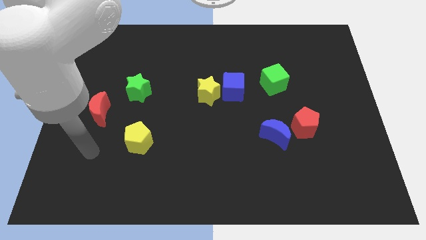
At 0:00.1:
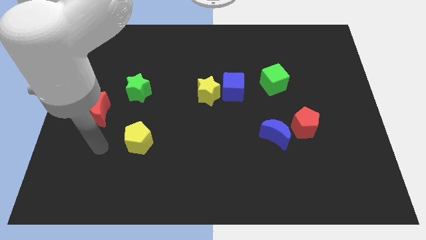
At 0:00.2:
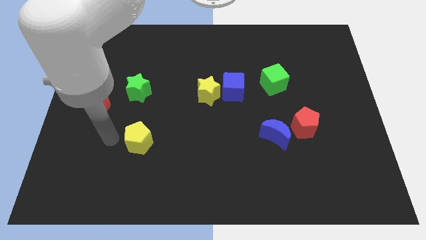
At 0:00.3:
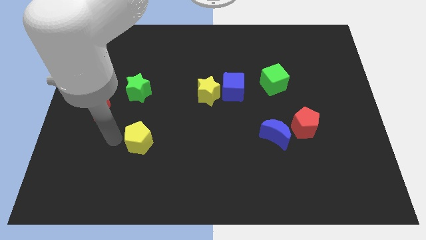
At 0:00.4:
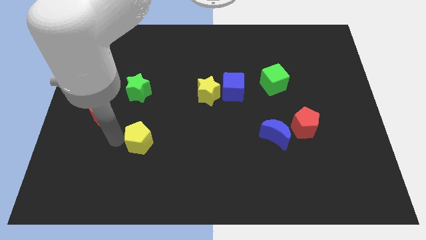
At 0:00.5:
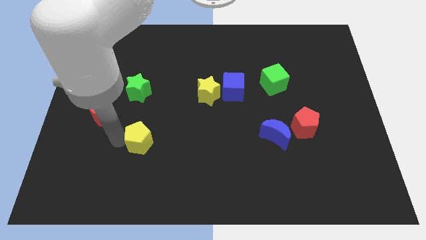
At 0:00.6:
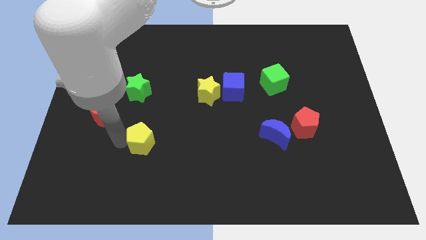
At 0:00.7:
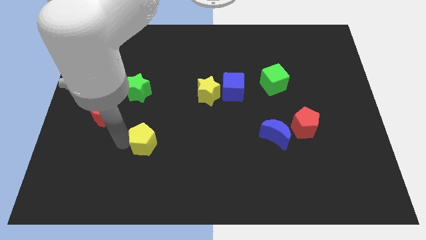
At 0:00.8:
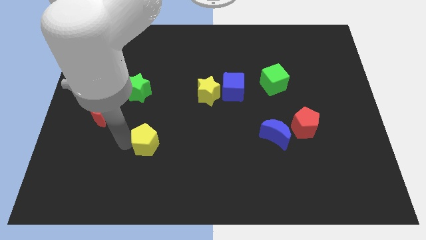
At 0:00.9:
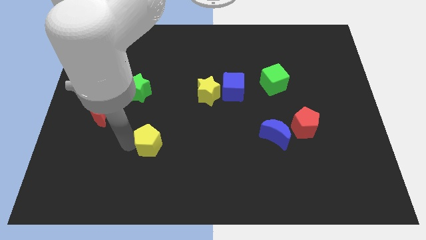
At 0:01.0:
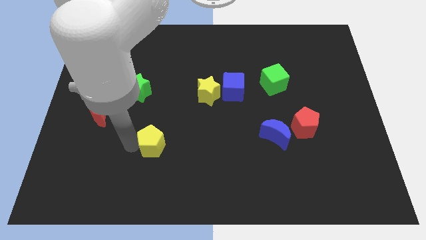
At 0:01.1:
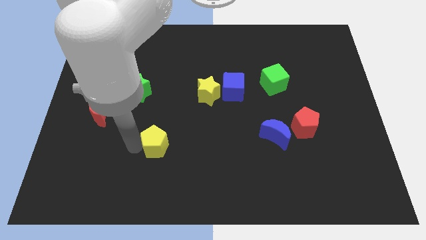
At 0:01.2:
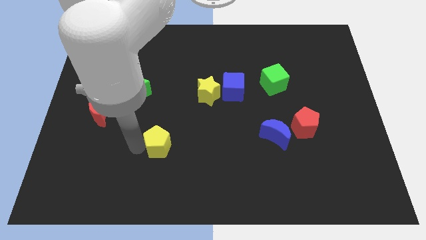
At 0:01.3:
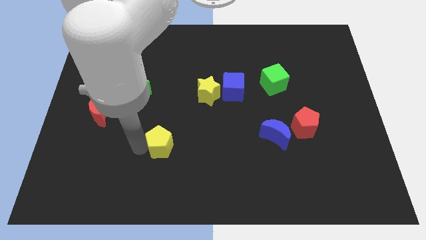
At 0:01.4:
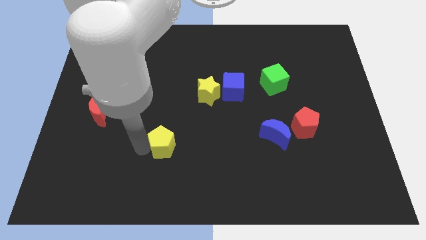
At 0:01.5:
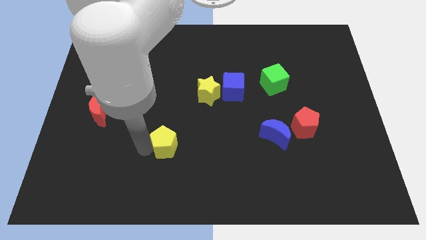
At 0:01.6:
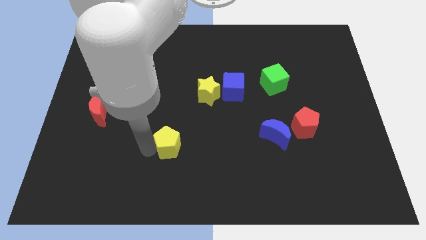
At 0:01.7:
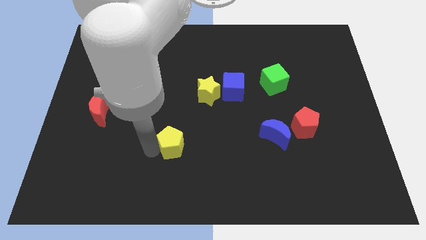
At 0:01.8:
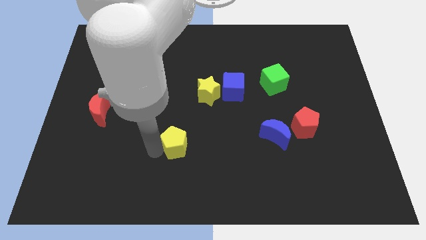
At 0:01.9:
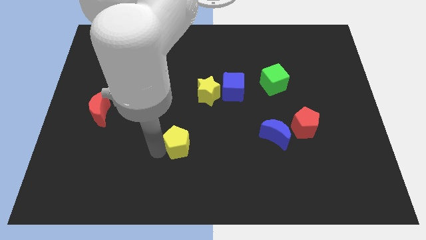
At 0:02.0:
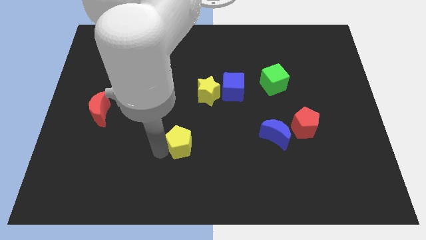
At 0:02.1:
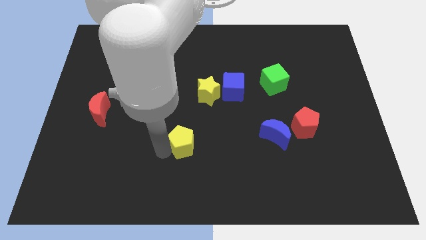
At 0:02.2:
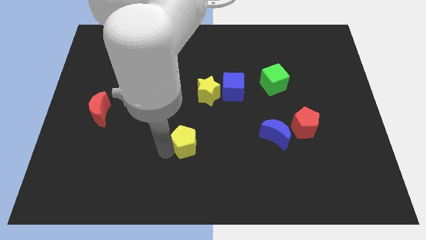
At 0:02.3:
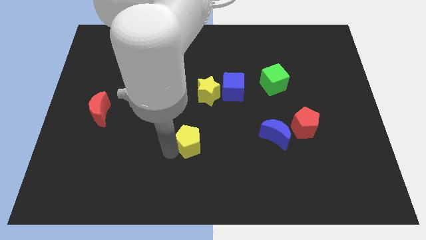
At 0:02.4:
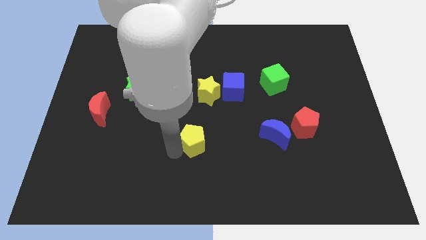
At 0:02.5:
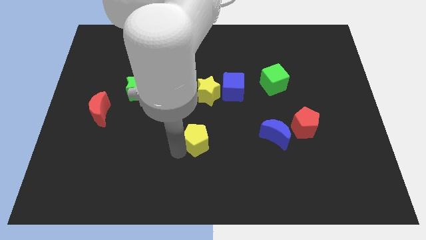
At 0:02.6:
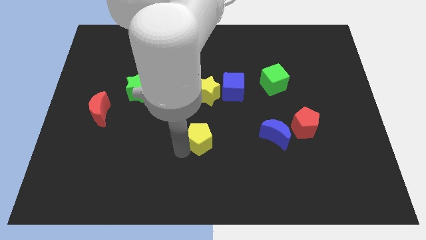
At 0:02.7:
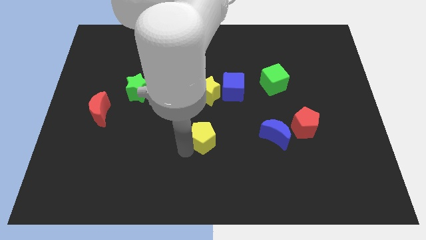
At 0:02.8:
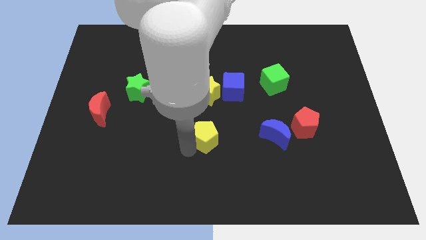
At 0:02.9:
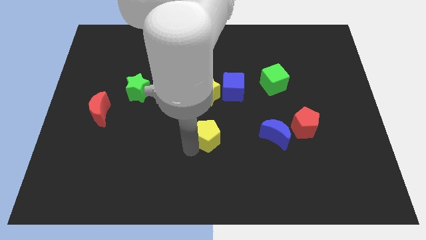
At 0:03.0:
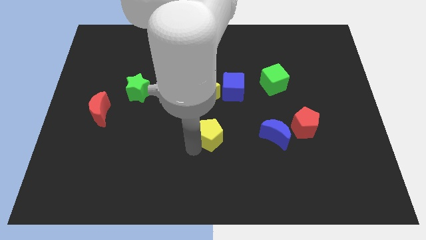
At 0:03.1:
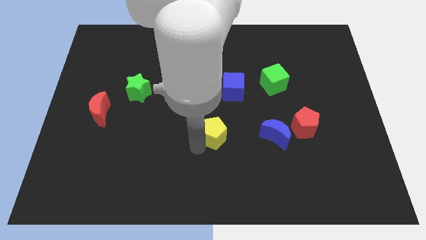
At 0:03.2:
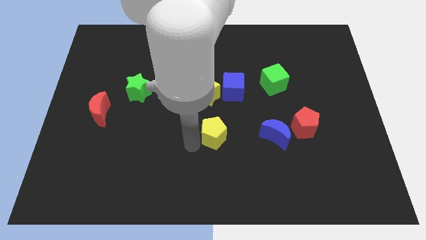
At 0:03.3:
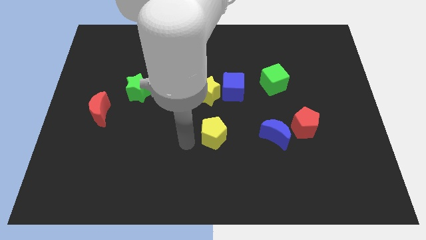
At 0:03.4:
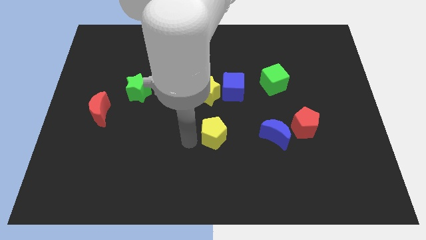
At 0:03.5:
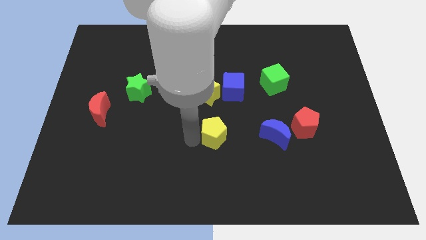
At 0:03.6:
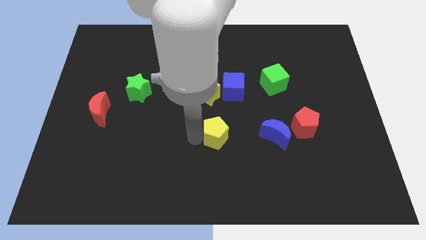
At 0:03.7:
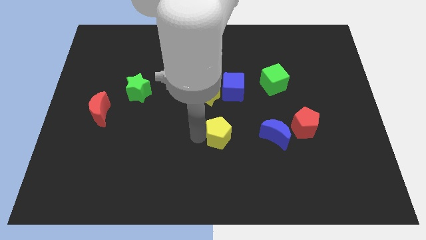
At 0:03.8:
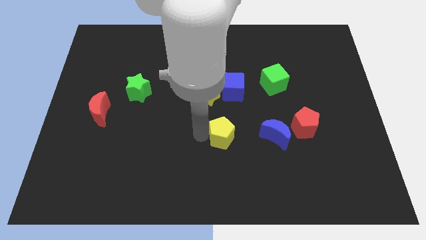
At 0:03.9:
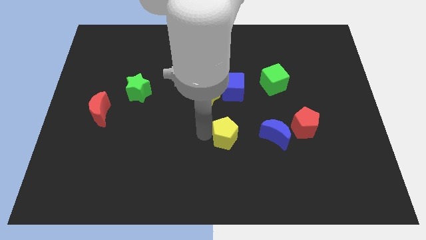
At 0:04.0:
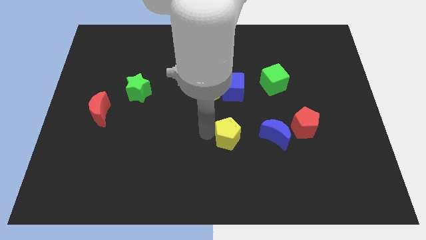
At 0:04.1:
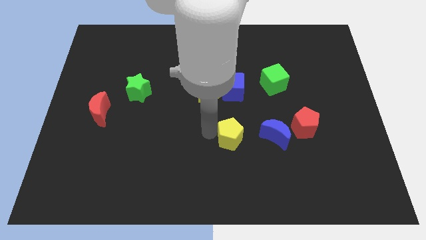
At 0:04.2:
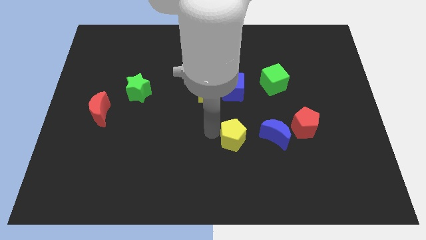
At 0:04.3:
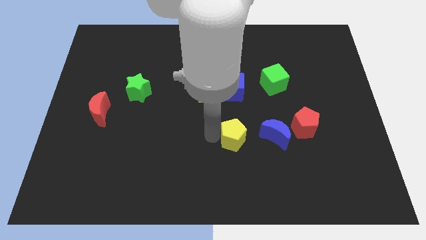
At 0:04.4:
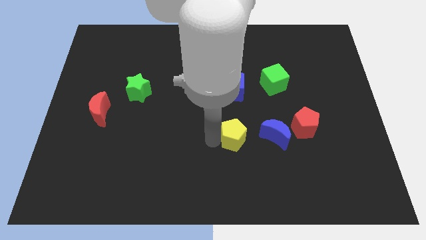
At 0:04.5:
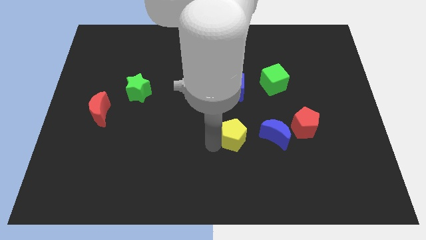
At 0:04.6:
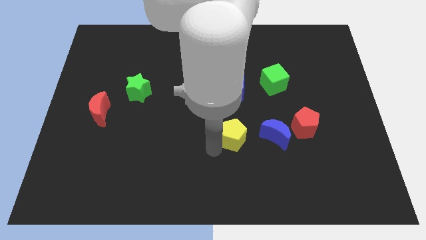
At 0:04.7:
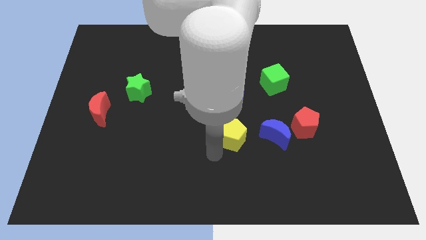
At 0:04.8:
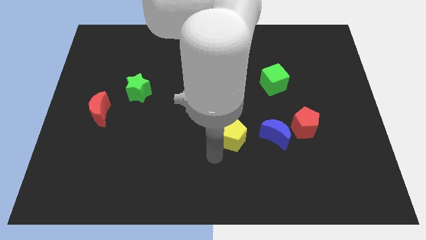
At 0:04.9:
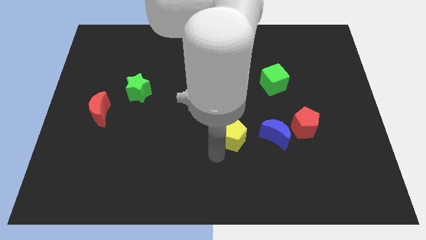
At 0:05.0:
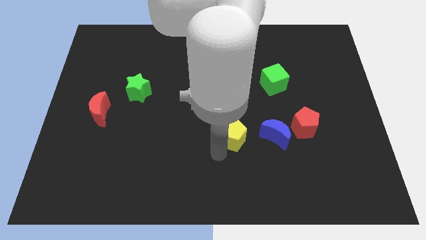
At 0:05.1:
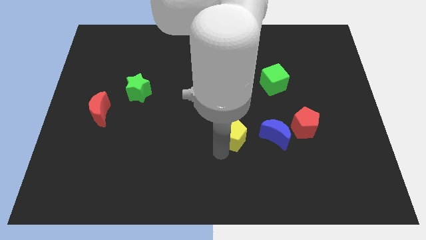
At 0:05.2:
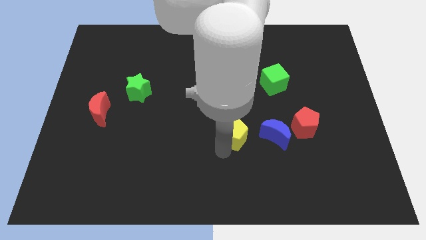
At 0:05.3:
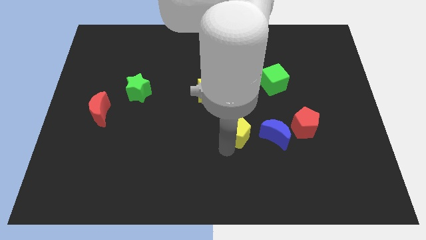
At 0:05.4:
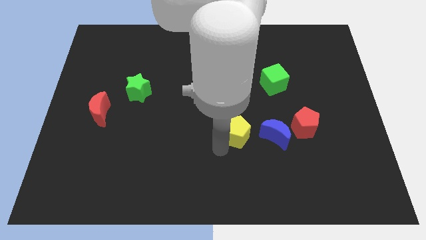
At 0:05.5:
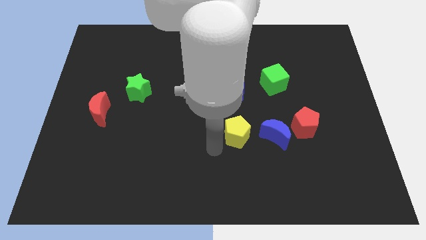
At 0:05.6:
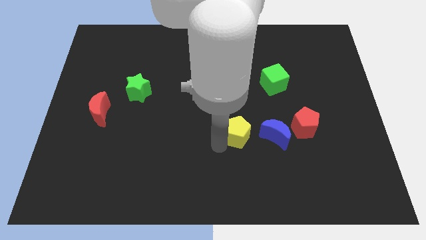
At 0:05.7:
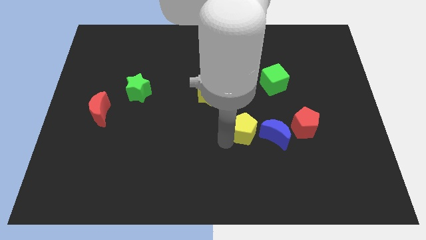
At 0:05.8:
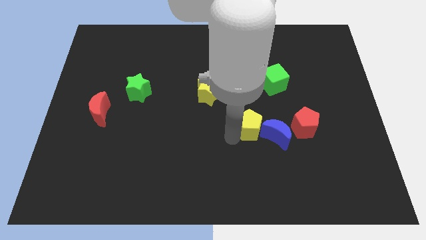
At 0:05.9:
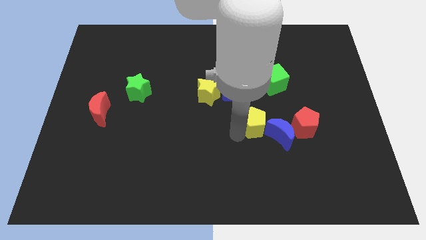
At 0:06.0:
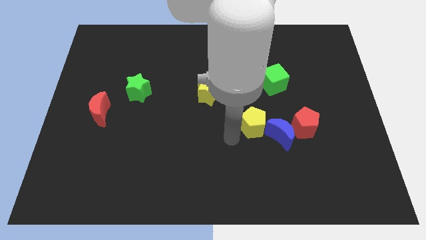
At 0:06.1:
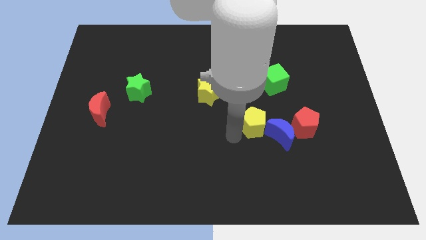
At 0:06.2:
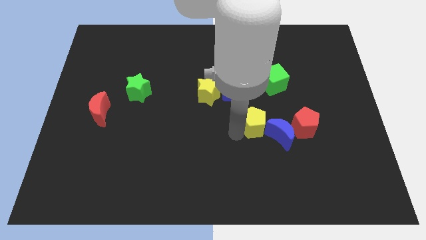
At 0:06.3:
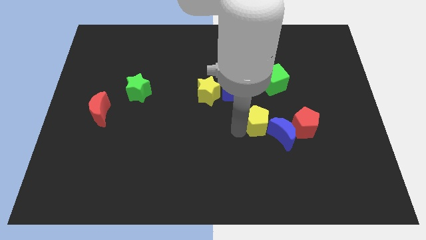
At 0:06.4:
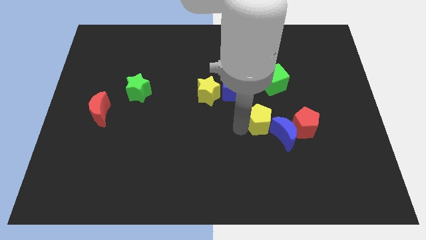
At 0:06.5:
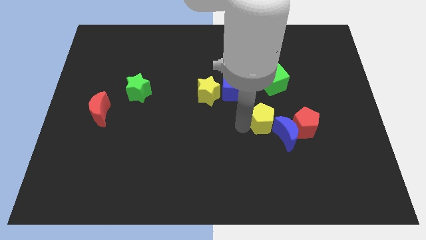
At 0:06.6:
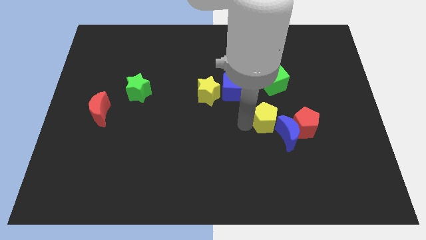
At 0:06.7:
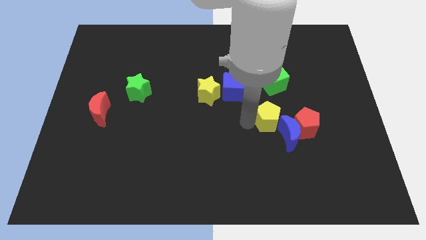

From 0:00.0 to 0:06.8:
move the yellow pentagon to the top left side of the red pentagon

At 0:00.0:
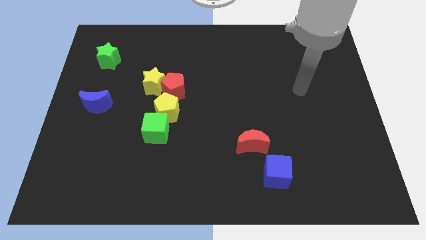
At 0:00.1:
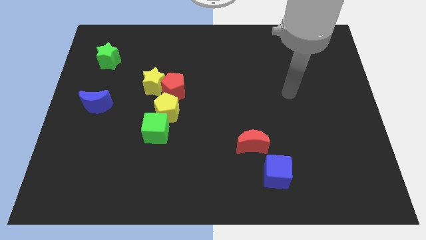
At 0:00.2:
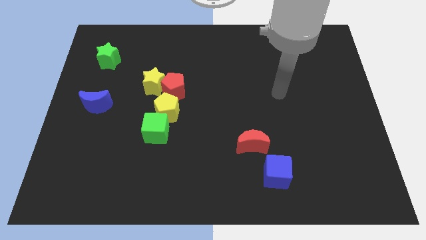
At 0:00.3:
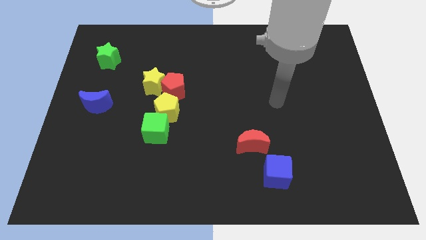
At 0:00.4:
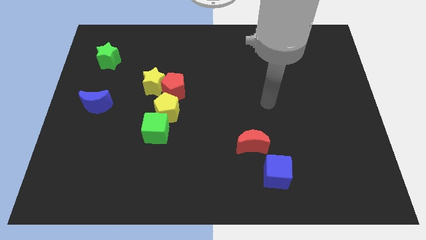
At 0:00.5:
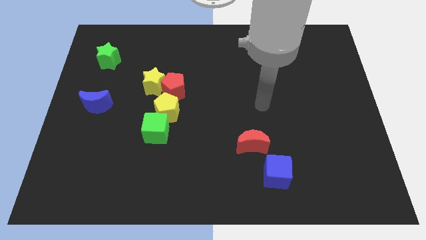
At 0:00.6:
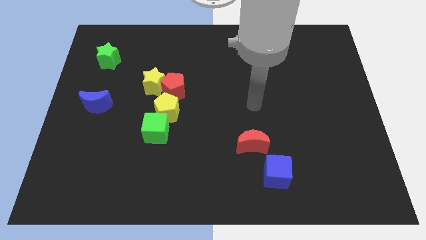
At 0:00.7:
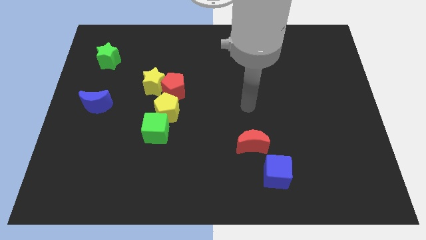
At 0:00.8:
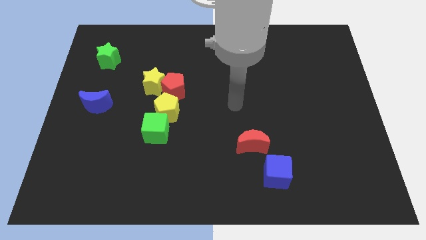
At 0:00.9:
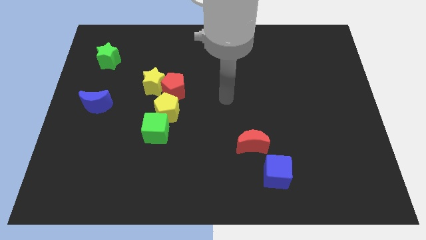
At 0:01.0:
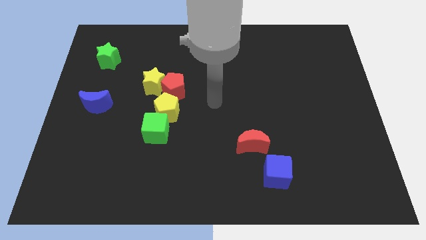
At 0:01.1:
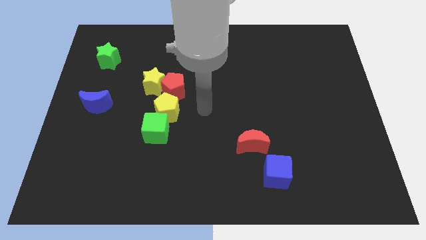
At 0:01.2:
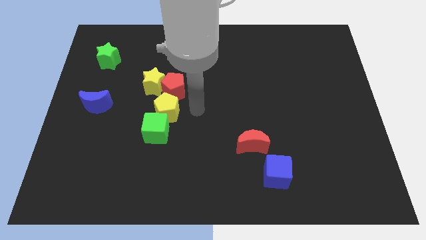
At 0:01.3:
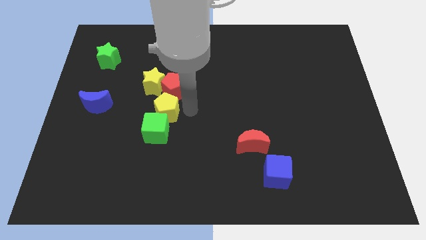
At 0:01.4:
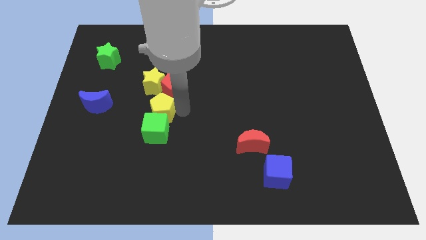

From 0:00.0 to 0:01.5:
slide the yellow pentagon diagonally up and to the left of the green cube

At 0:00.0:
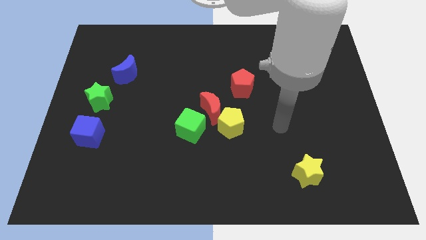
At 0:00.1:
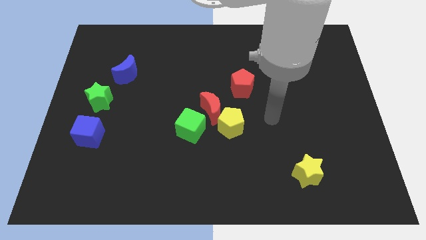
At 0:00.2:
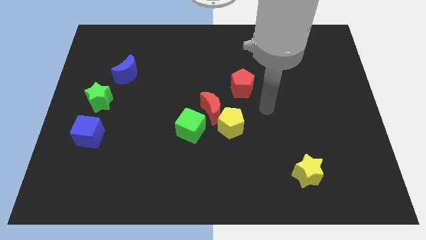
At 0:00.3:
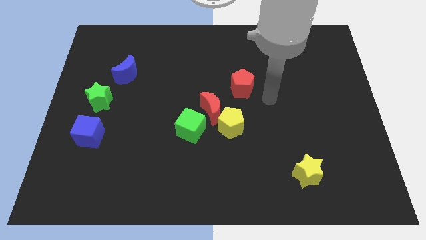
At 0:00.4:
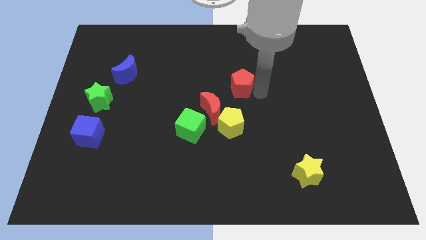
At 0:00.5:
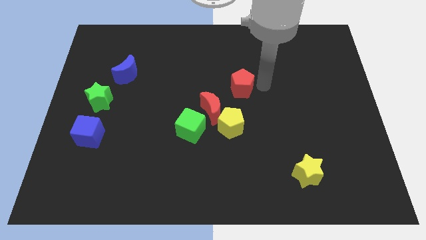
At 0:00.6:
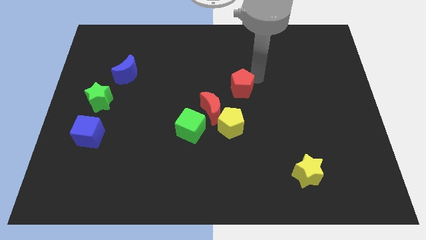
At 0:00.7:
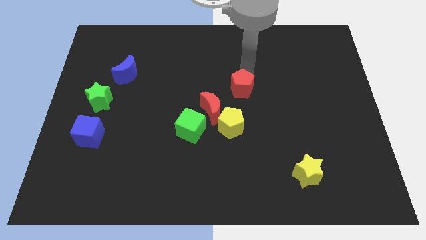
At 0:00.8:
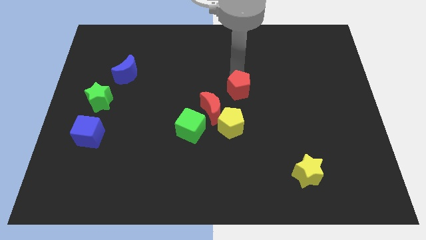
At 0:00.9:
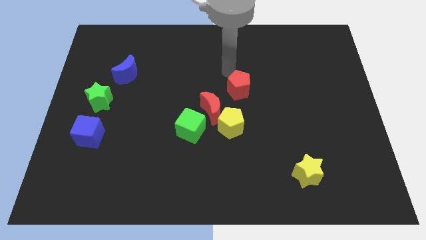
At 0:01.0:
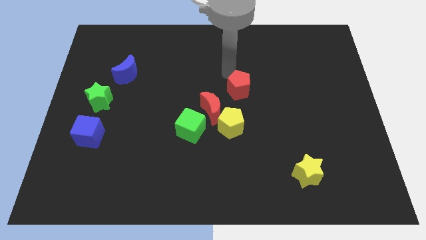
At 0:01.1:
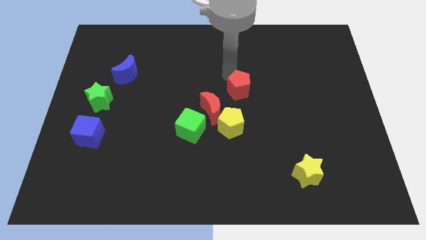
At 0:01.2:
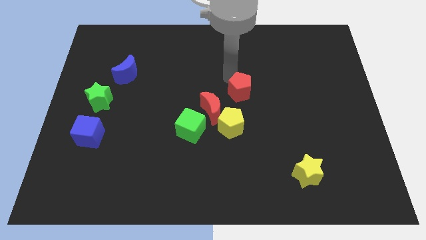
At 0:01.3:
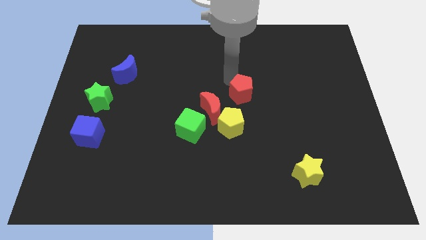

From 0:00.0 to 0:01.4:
push the red pentagon diagonally up and to the right of the yellow pentagon
